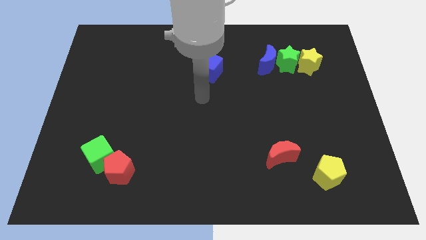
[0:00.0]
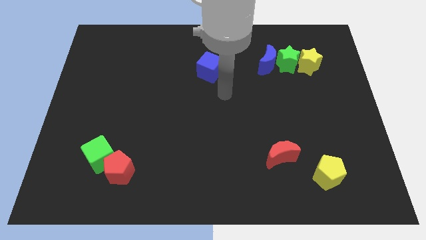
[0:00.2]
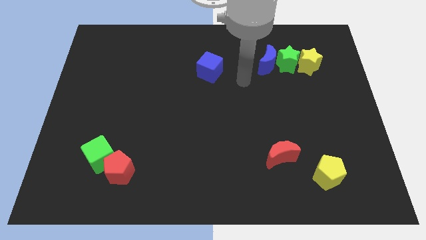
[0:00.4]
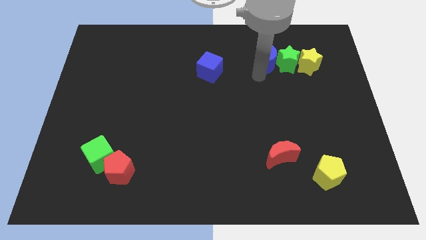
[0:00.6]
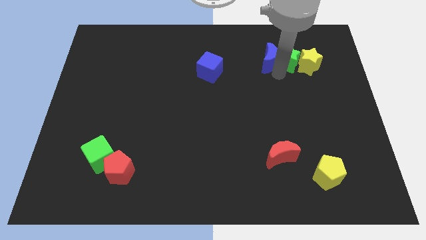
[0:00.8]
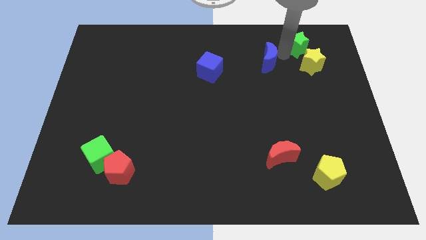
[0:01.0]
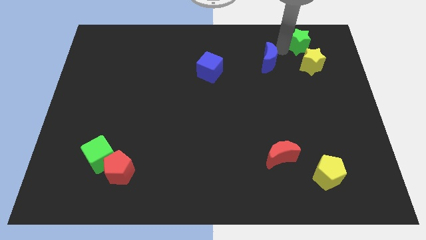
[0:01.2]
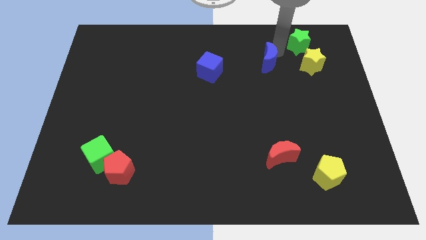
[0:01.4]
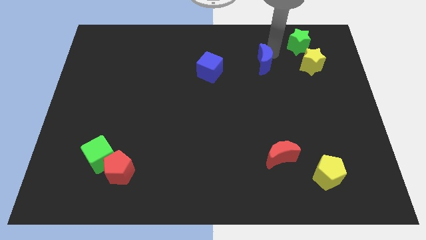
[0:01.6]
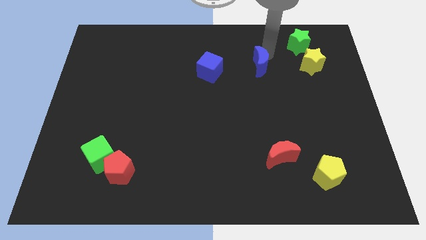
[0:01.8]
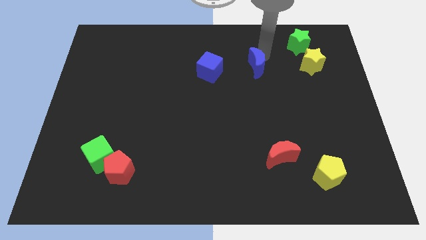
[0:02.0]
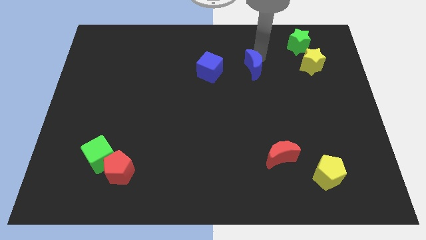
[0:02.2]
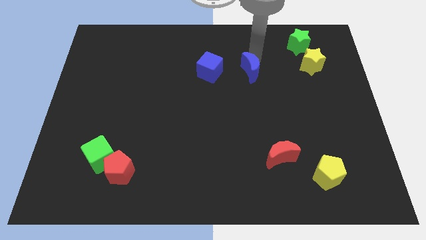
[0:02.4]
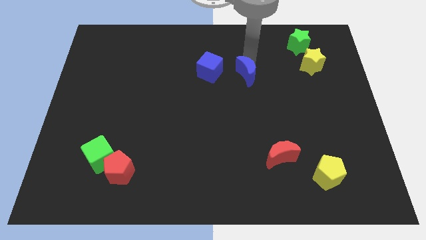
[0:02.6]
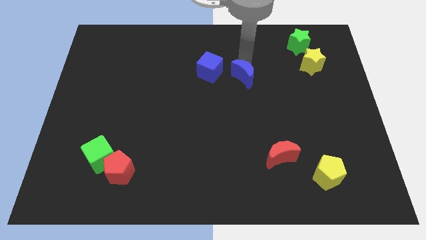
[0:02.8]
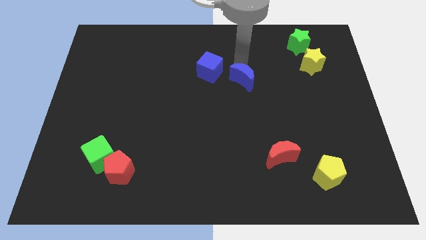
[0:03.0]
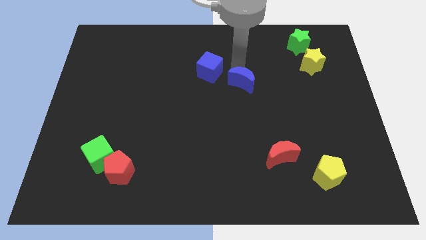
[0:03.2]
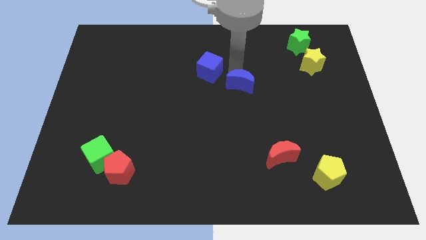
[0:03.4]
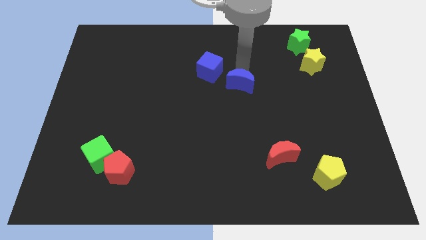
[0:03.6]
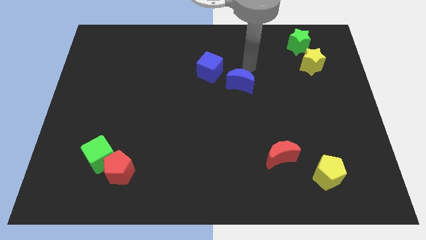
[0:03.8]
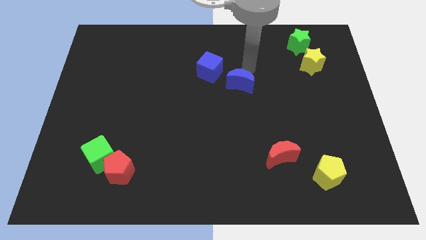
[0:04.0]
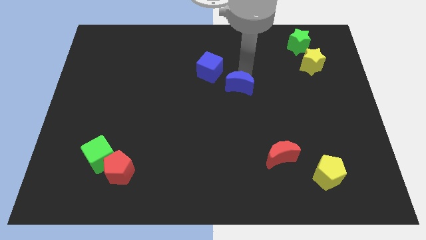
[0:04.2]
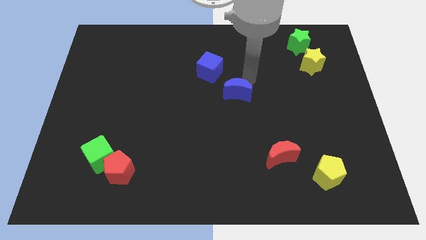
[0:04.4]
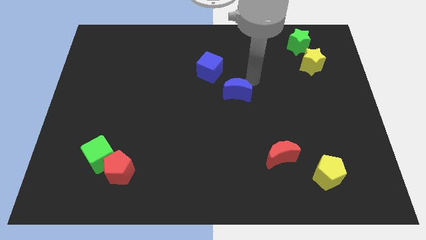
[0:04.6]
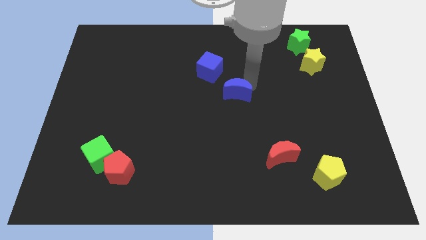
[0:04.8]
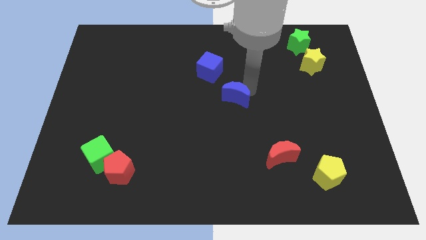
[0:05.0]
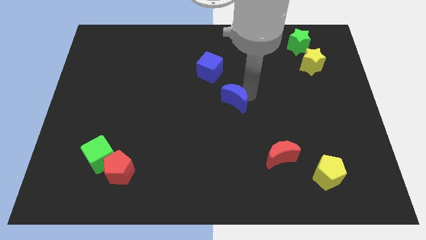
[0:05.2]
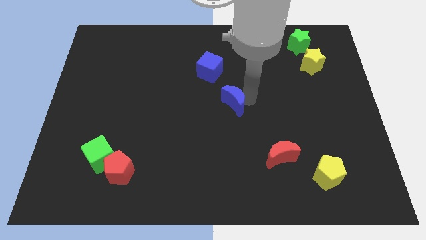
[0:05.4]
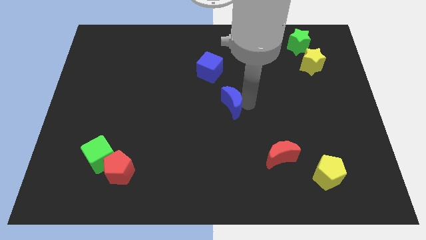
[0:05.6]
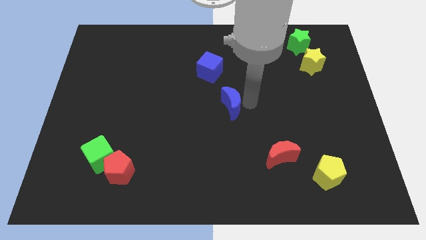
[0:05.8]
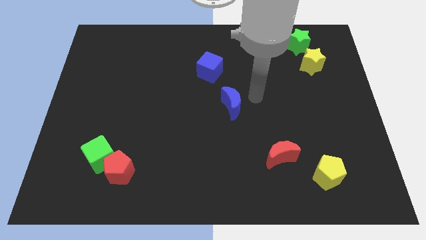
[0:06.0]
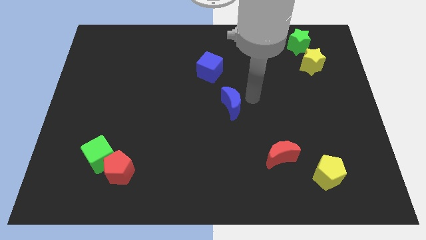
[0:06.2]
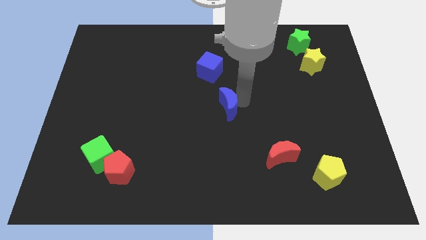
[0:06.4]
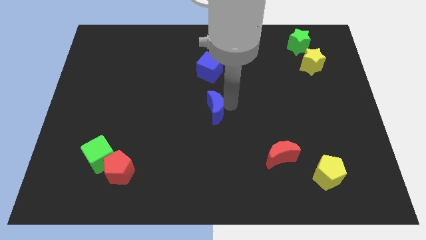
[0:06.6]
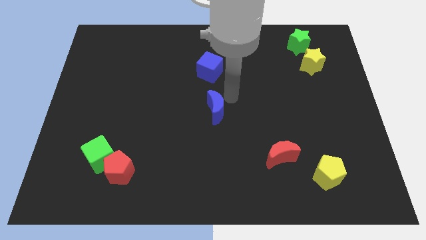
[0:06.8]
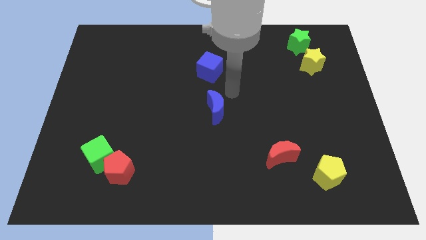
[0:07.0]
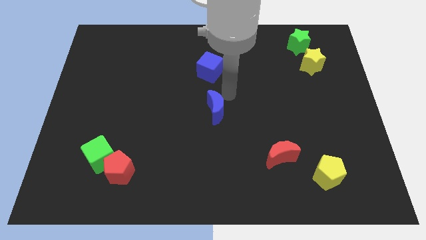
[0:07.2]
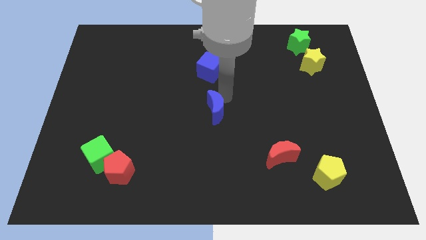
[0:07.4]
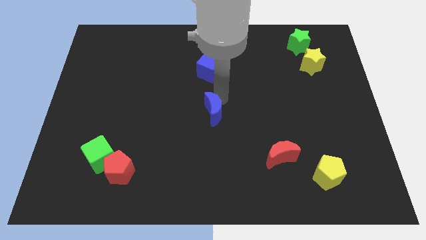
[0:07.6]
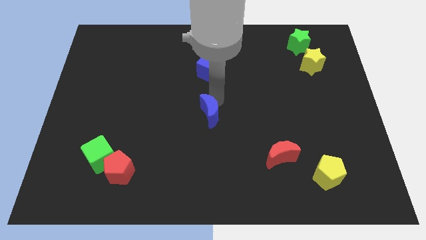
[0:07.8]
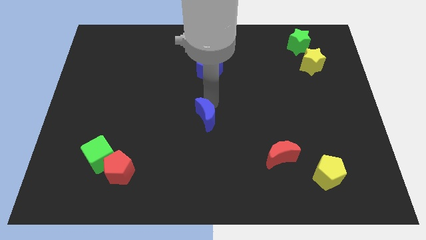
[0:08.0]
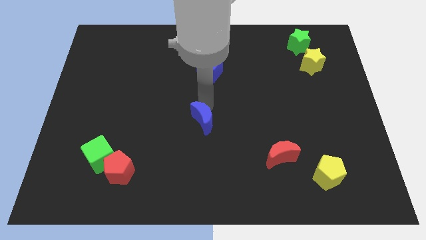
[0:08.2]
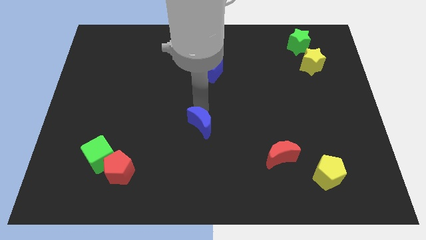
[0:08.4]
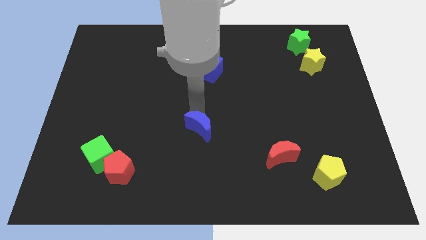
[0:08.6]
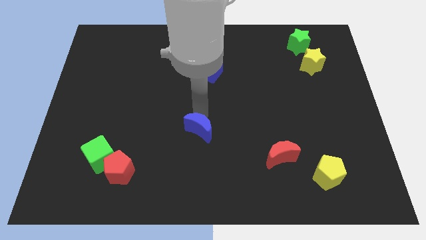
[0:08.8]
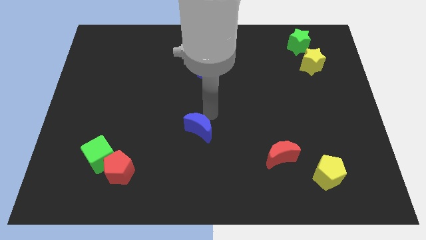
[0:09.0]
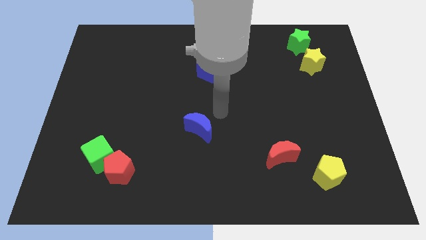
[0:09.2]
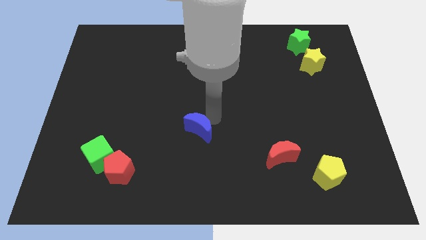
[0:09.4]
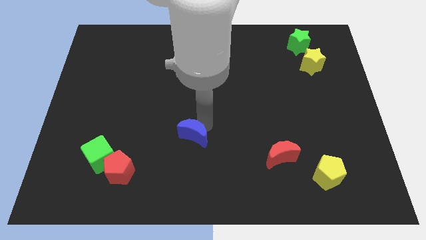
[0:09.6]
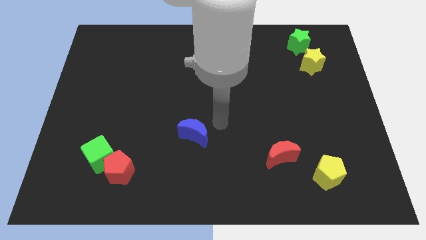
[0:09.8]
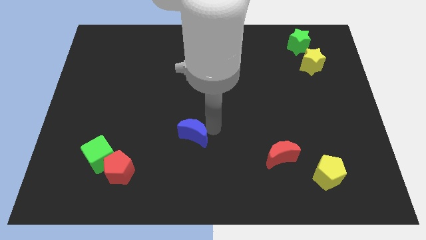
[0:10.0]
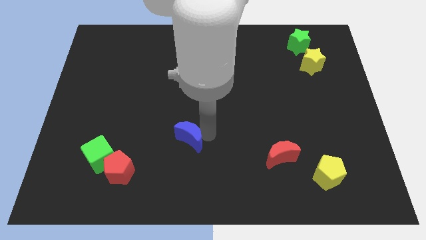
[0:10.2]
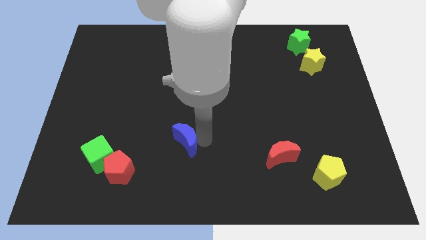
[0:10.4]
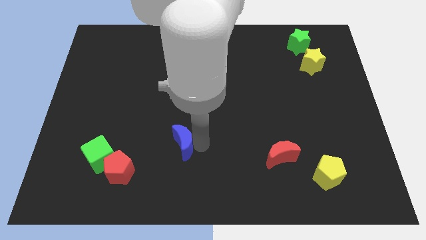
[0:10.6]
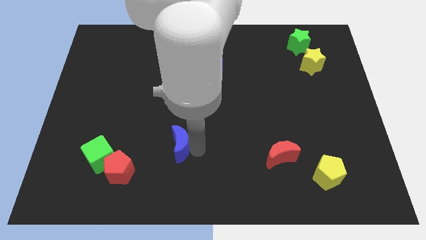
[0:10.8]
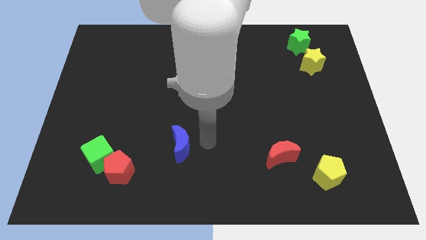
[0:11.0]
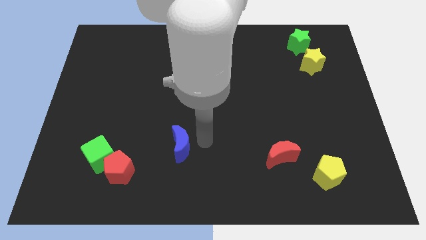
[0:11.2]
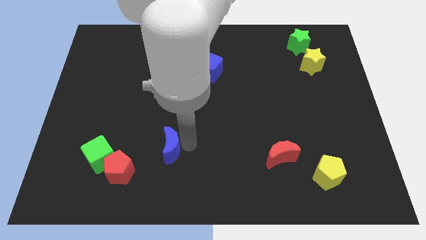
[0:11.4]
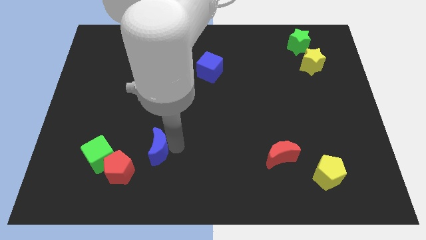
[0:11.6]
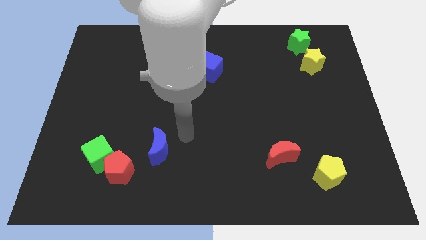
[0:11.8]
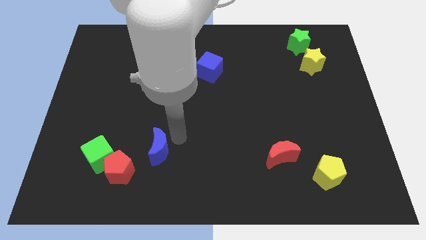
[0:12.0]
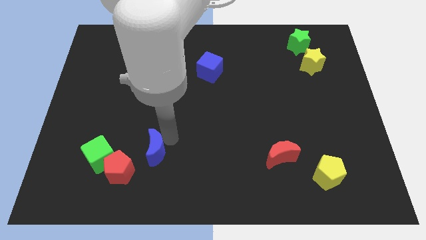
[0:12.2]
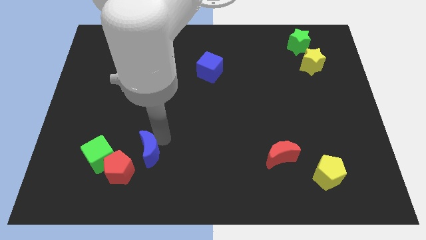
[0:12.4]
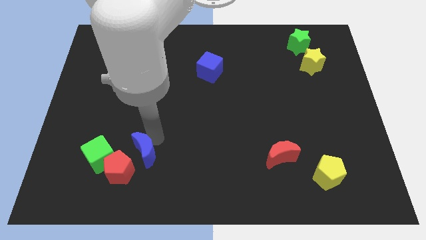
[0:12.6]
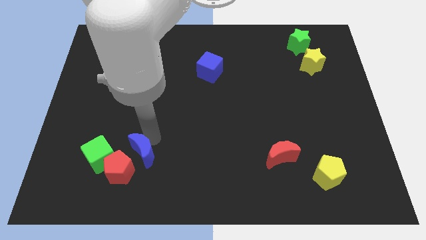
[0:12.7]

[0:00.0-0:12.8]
put the blue moon close to the red pentagon

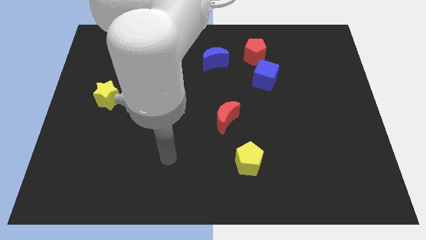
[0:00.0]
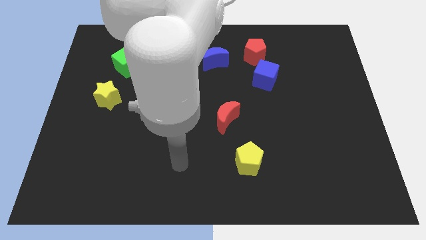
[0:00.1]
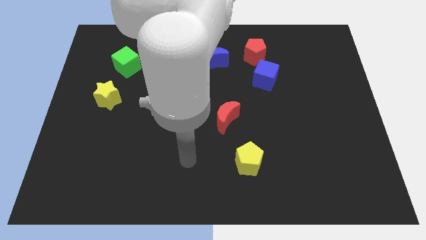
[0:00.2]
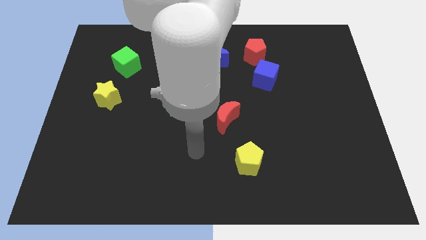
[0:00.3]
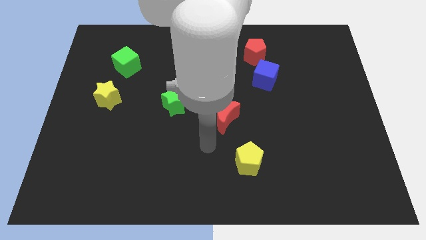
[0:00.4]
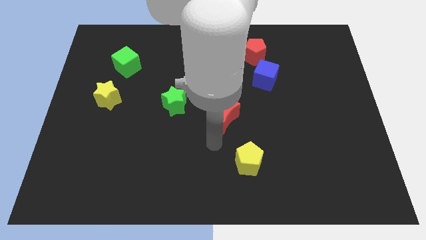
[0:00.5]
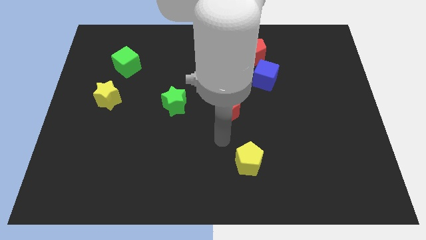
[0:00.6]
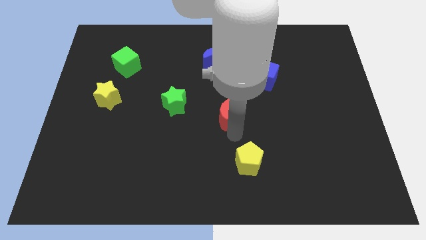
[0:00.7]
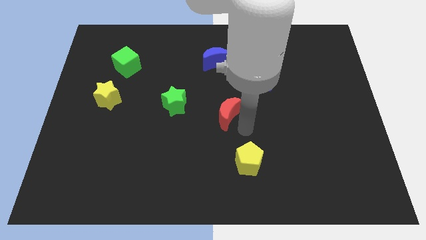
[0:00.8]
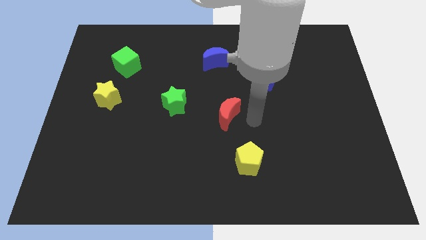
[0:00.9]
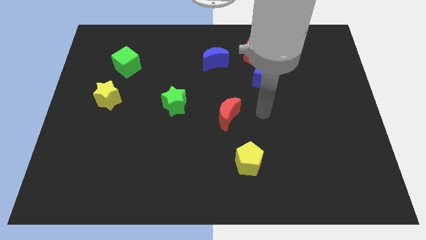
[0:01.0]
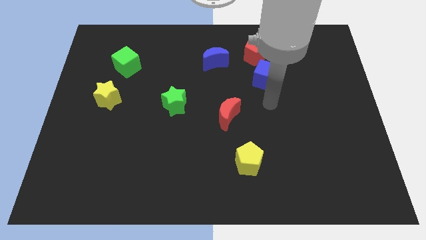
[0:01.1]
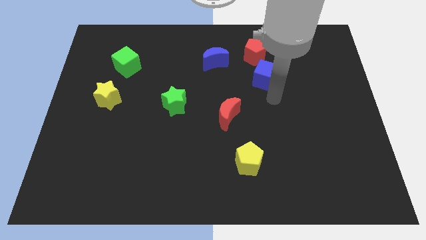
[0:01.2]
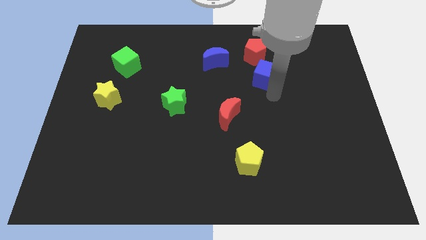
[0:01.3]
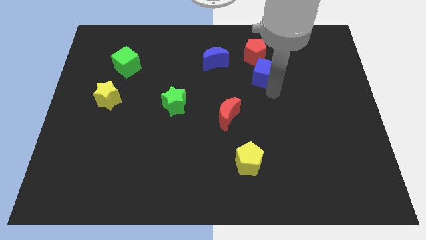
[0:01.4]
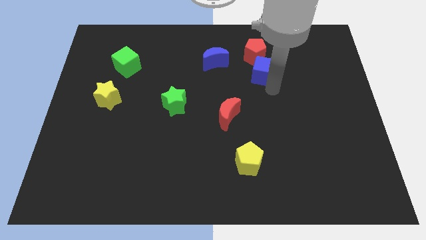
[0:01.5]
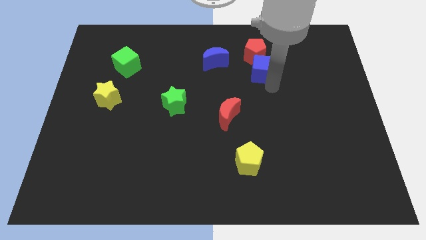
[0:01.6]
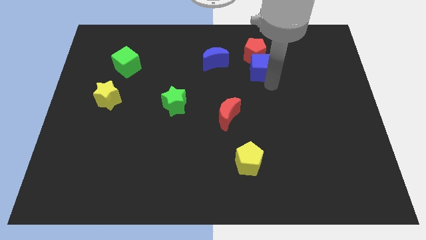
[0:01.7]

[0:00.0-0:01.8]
push the blue cube towards the red pentagon
